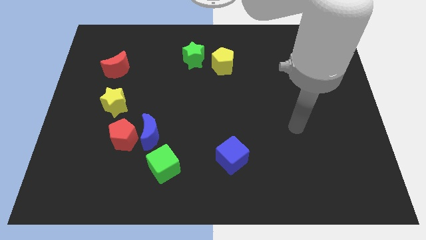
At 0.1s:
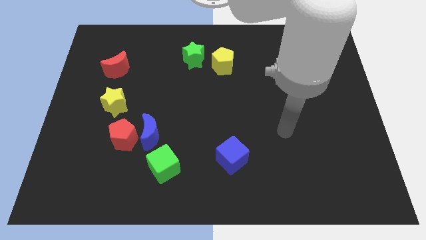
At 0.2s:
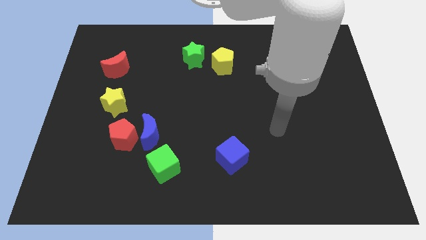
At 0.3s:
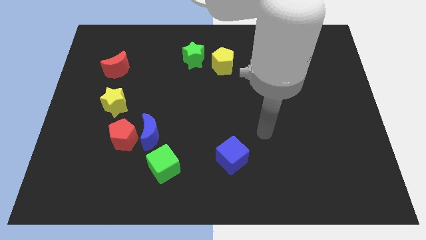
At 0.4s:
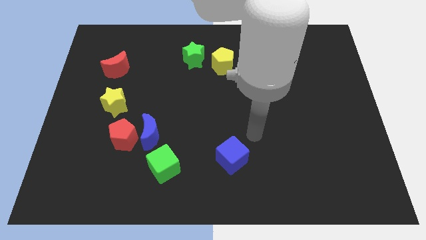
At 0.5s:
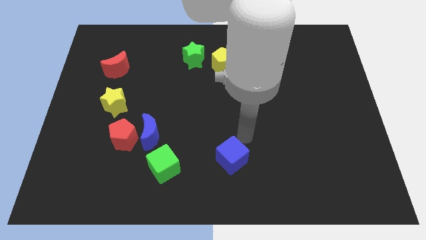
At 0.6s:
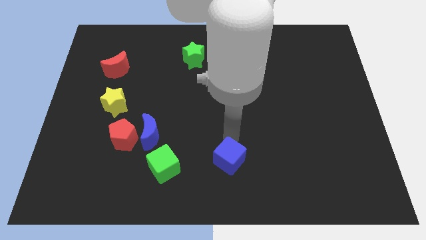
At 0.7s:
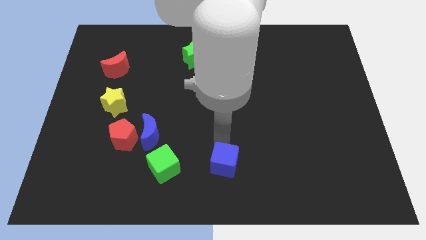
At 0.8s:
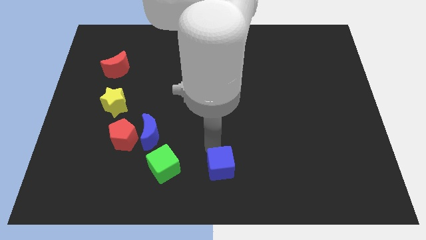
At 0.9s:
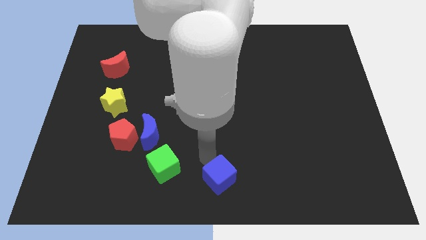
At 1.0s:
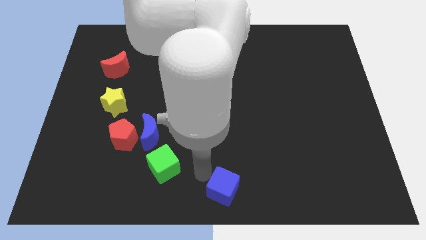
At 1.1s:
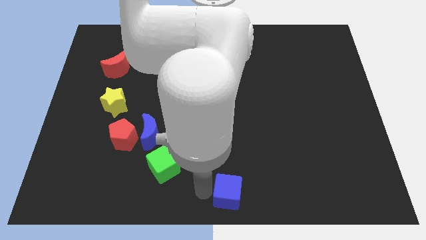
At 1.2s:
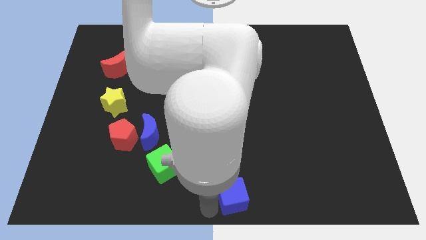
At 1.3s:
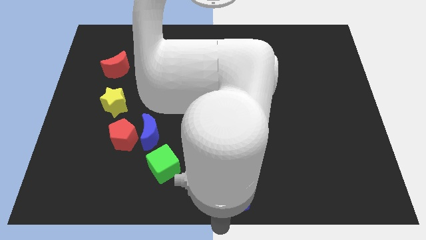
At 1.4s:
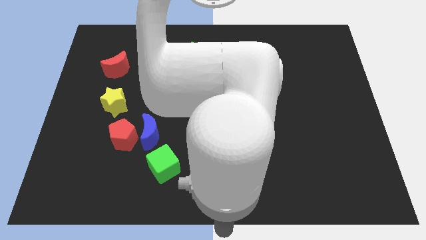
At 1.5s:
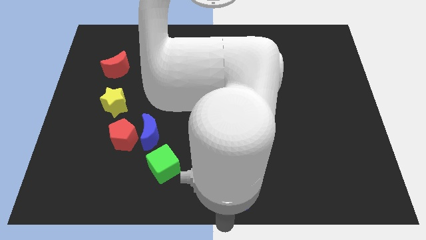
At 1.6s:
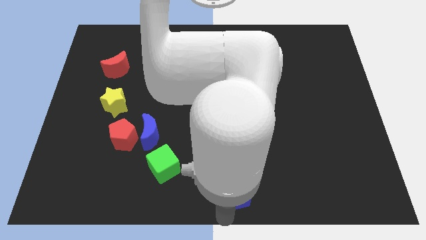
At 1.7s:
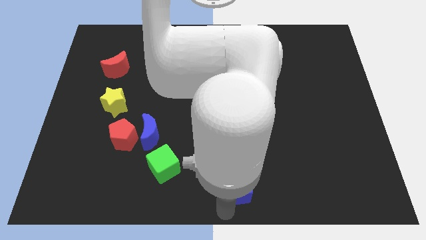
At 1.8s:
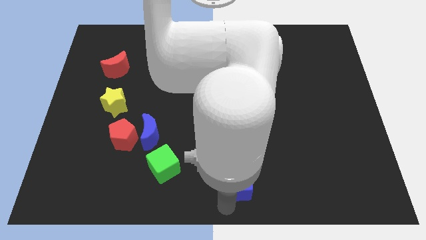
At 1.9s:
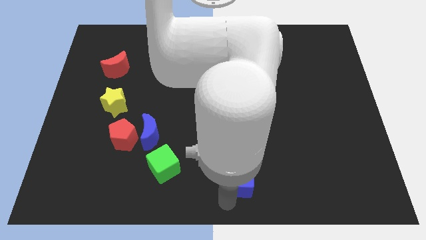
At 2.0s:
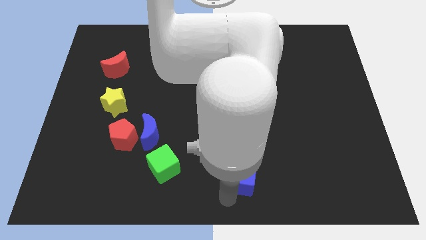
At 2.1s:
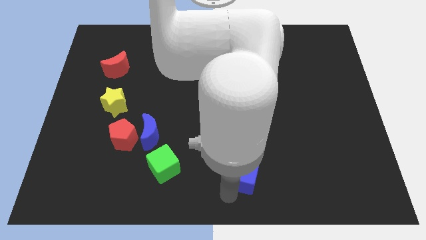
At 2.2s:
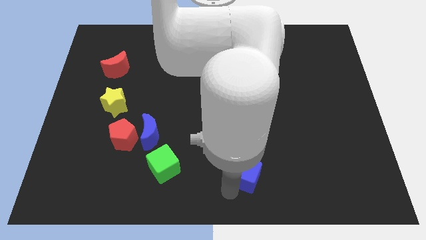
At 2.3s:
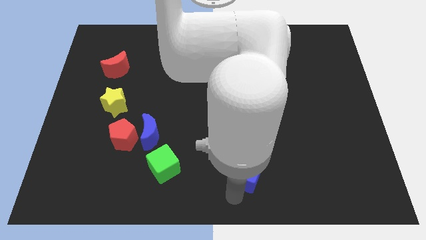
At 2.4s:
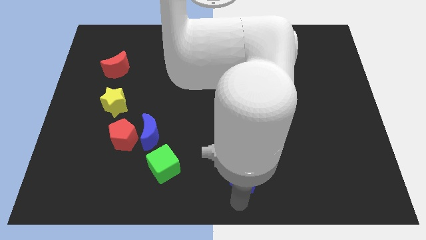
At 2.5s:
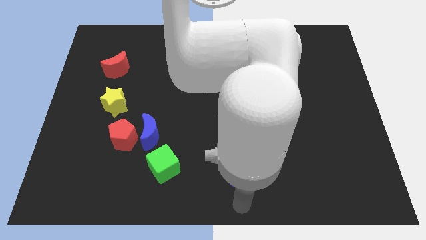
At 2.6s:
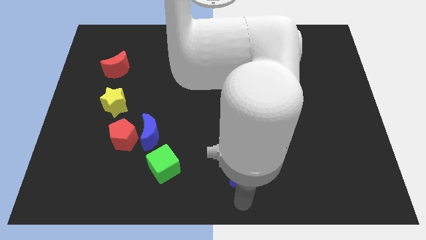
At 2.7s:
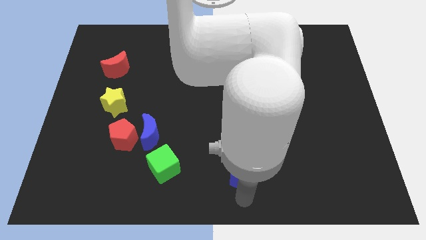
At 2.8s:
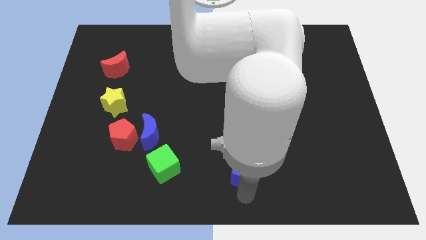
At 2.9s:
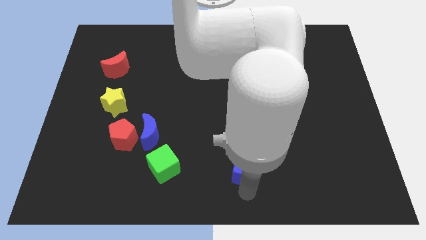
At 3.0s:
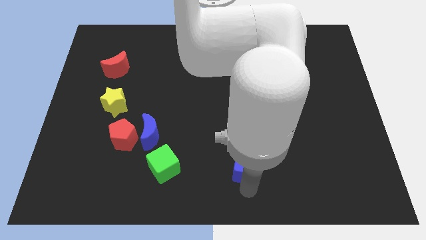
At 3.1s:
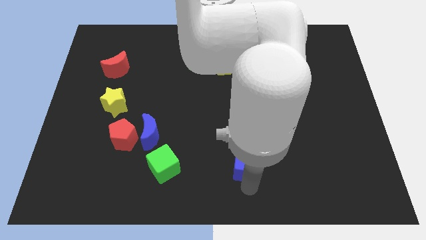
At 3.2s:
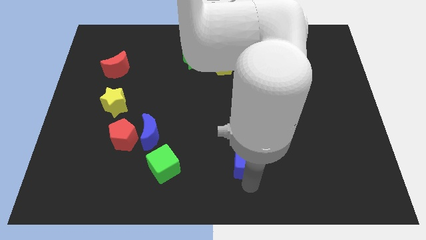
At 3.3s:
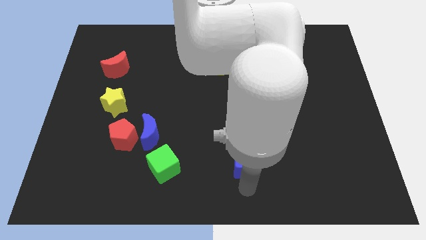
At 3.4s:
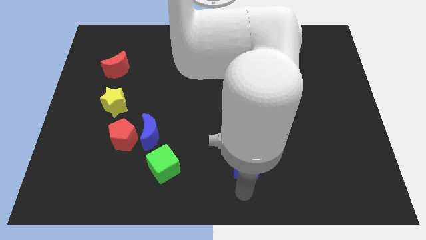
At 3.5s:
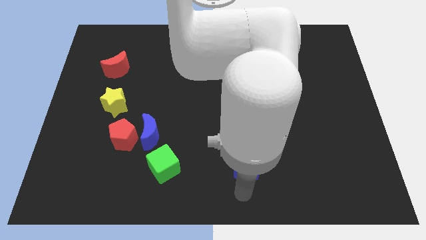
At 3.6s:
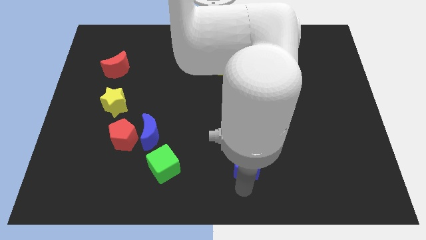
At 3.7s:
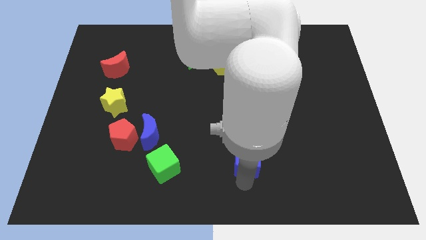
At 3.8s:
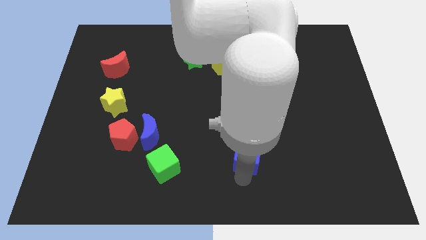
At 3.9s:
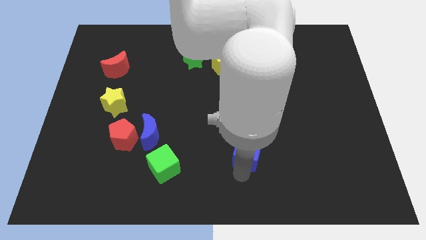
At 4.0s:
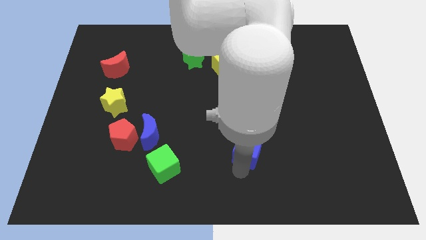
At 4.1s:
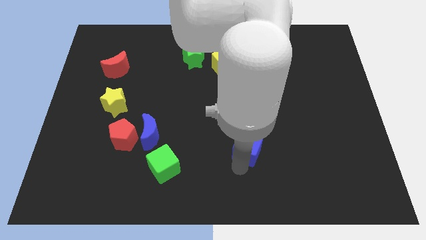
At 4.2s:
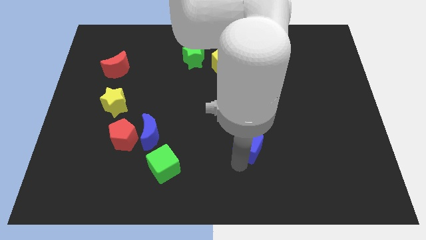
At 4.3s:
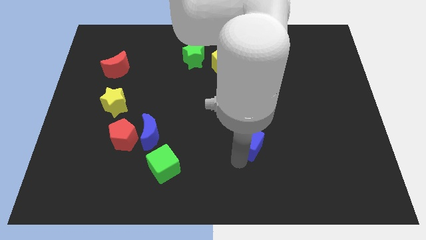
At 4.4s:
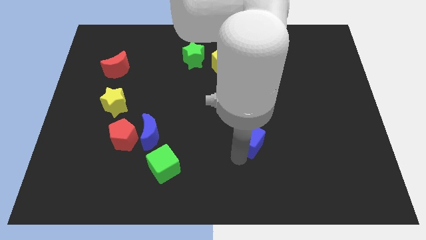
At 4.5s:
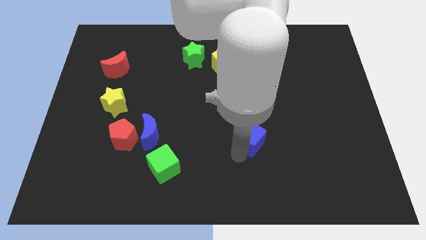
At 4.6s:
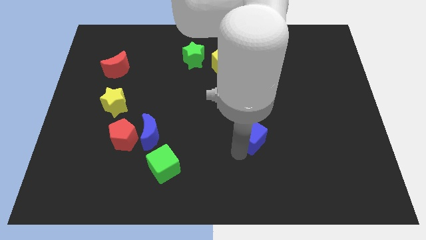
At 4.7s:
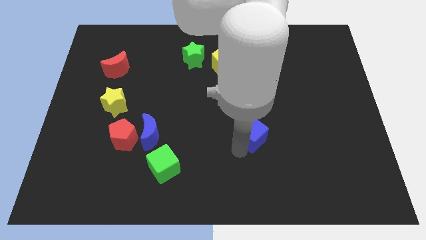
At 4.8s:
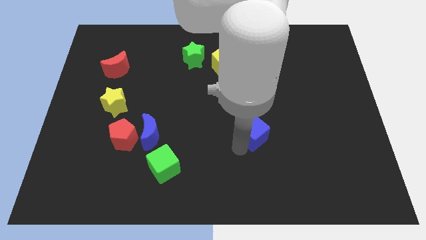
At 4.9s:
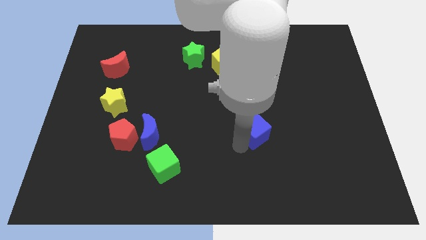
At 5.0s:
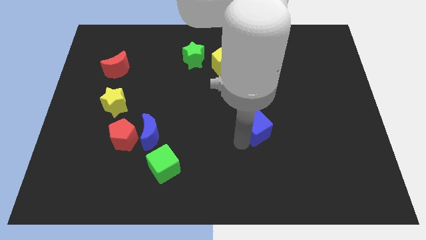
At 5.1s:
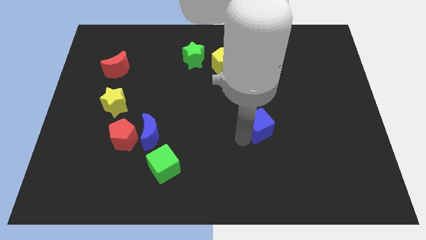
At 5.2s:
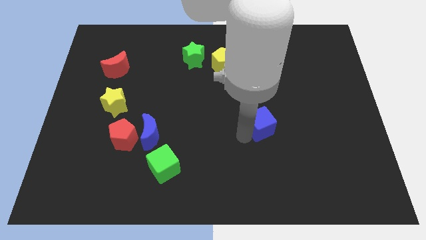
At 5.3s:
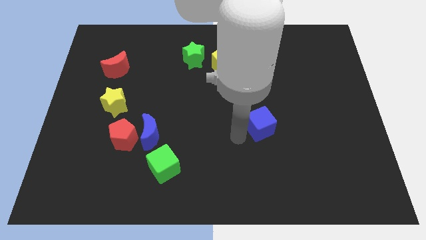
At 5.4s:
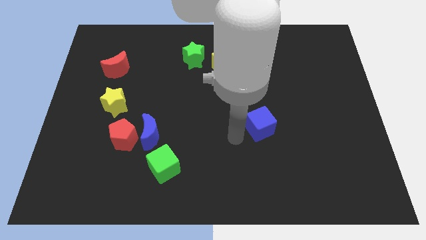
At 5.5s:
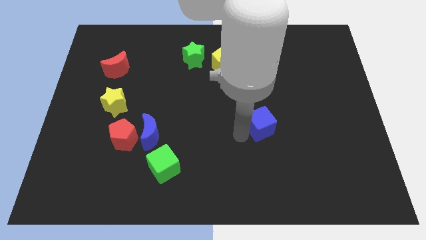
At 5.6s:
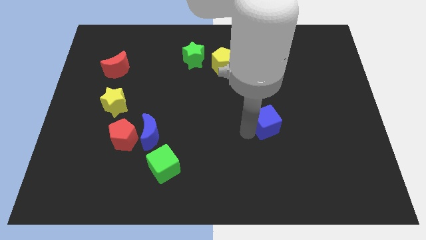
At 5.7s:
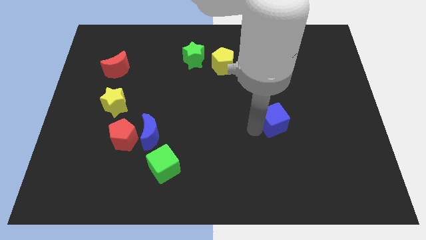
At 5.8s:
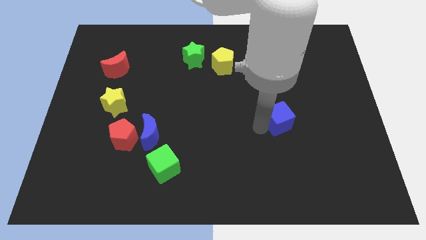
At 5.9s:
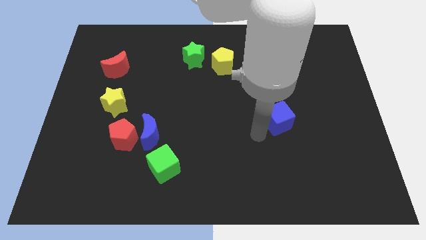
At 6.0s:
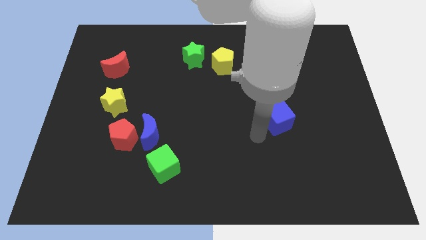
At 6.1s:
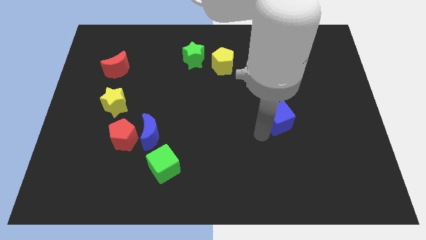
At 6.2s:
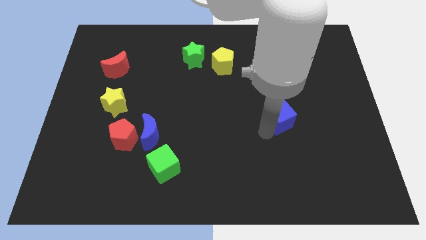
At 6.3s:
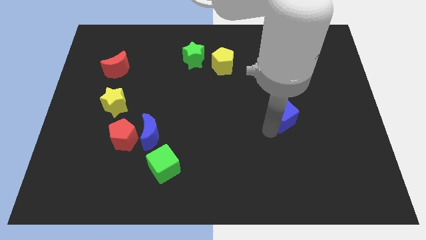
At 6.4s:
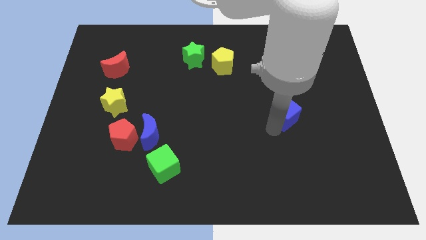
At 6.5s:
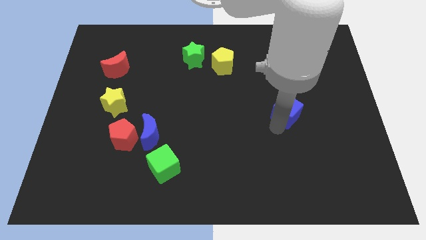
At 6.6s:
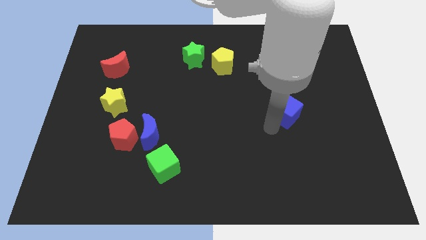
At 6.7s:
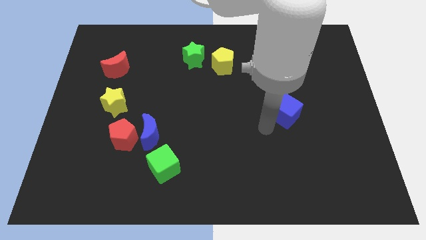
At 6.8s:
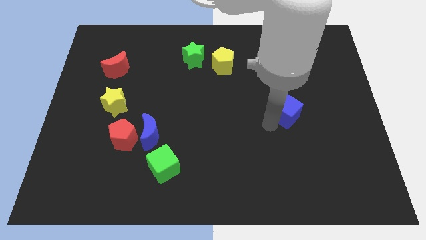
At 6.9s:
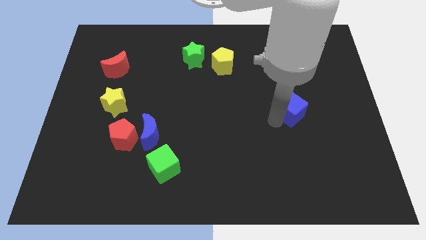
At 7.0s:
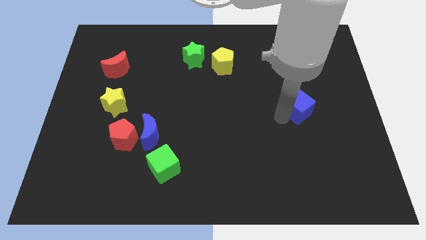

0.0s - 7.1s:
slide the blue cube diagonally up and right

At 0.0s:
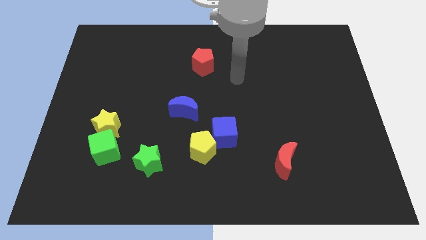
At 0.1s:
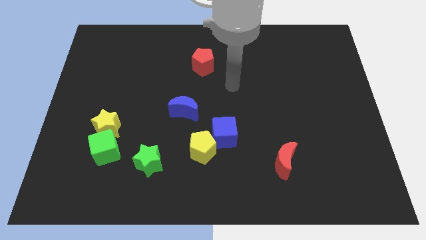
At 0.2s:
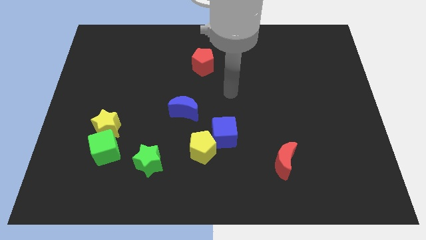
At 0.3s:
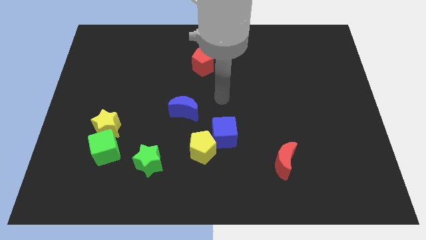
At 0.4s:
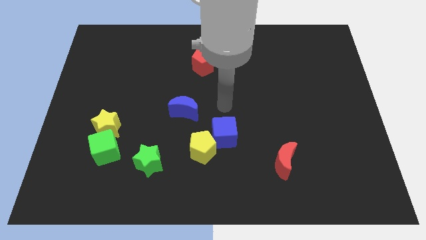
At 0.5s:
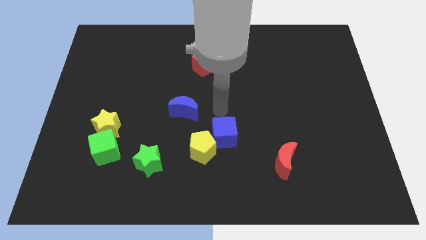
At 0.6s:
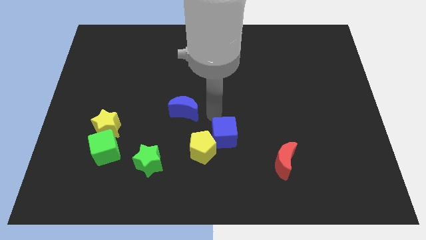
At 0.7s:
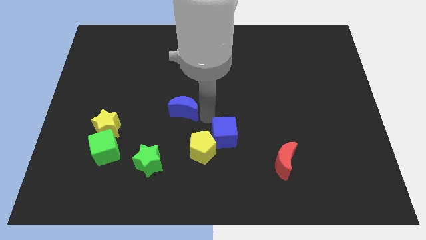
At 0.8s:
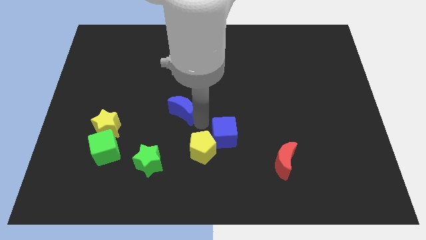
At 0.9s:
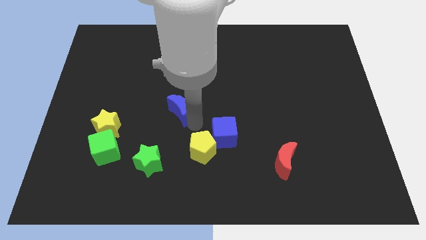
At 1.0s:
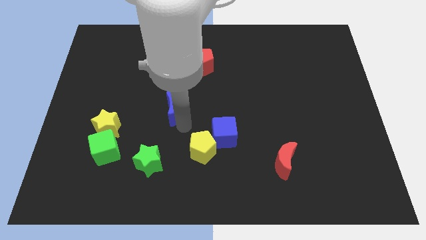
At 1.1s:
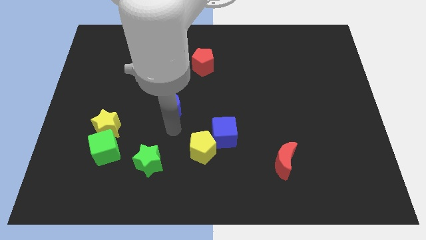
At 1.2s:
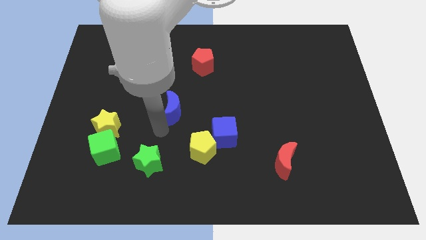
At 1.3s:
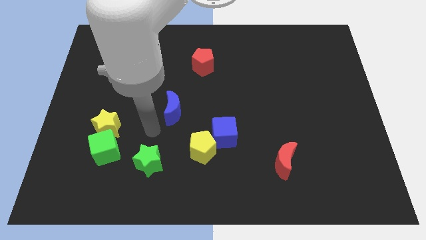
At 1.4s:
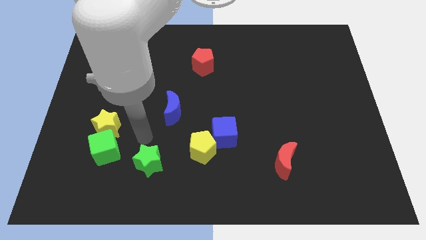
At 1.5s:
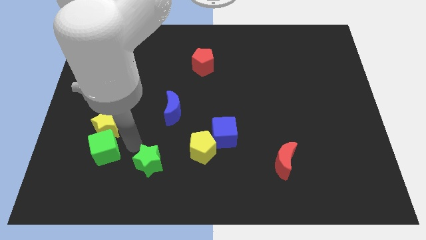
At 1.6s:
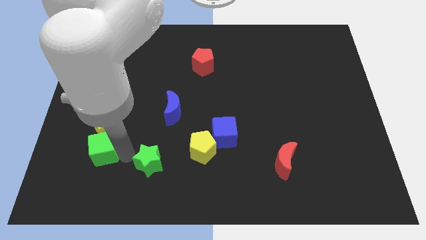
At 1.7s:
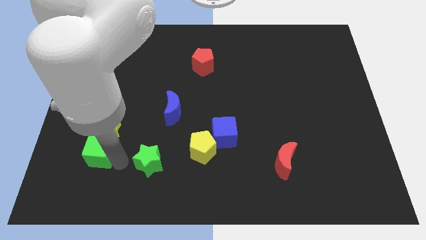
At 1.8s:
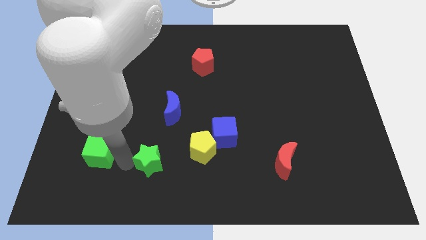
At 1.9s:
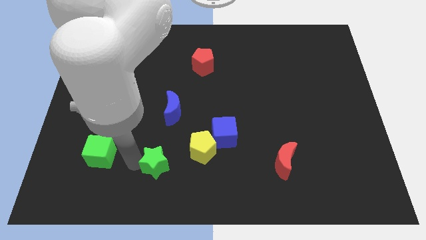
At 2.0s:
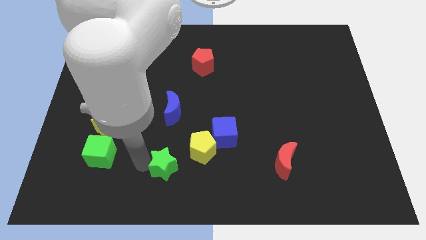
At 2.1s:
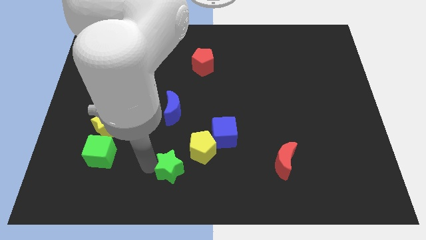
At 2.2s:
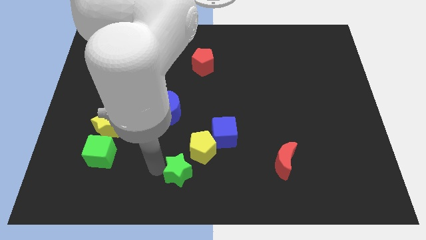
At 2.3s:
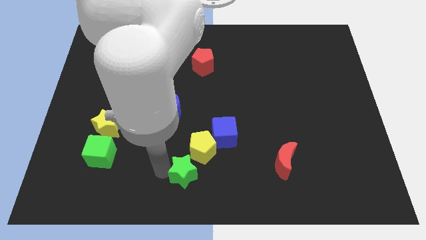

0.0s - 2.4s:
slightly push the green star right
